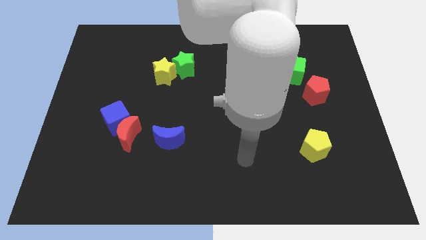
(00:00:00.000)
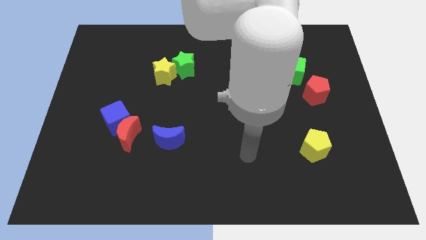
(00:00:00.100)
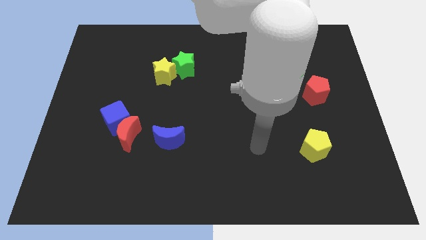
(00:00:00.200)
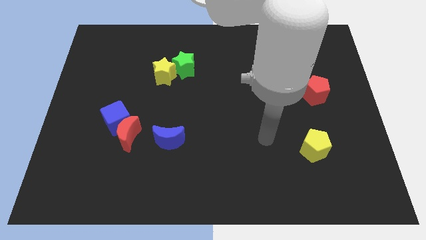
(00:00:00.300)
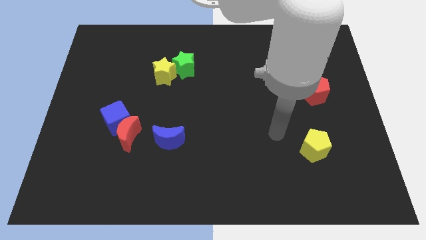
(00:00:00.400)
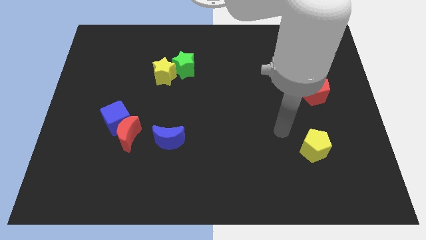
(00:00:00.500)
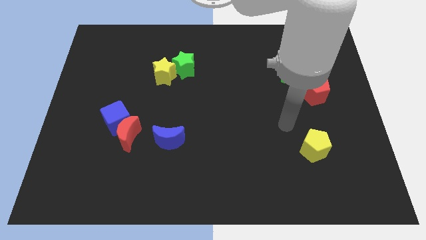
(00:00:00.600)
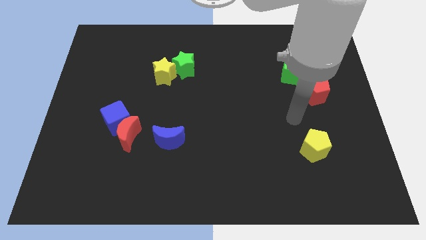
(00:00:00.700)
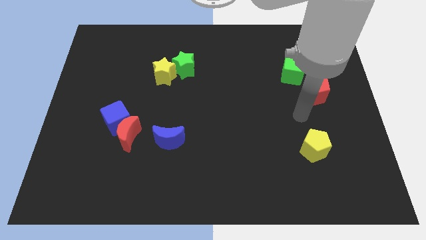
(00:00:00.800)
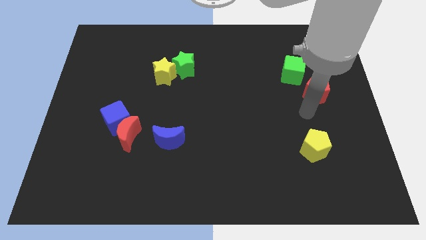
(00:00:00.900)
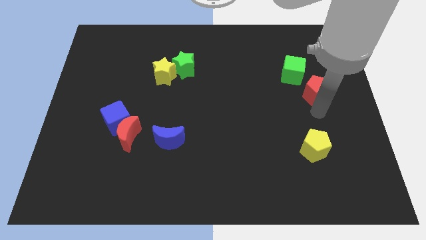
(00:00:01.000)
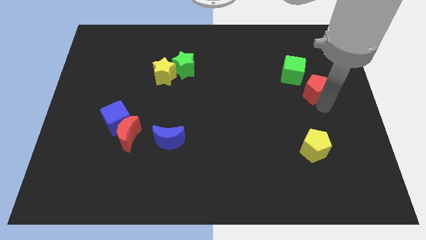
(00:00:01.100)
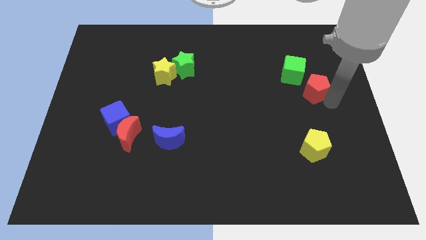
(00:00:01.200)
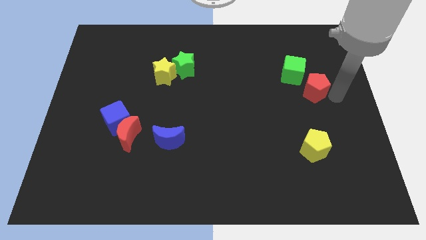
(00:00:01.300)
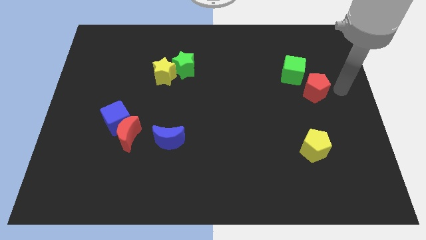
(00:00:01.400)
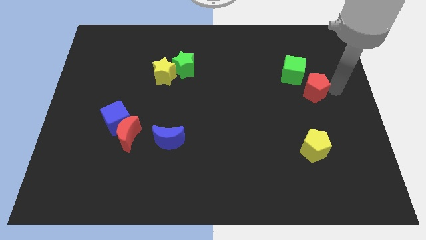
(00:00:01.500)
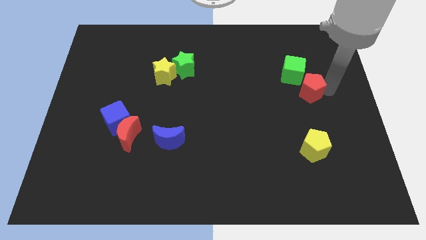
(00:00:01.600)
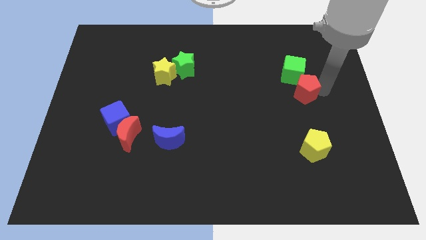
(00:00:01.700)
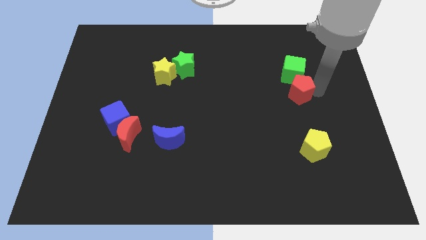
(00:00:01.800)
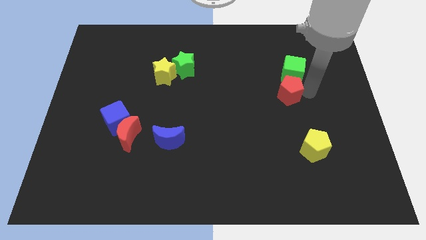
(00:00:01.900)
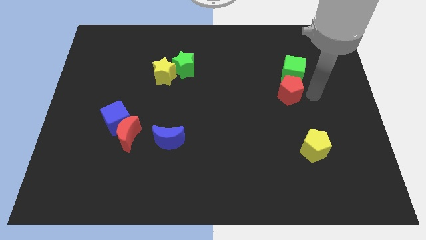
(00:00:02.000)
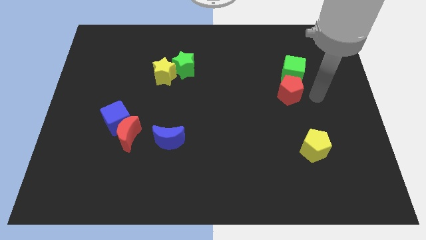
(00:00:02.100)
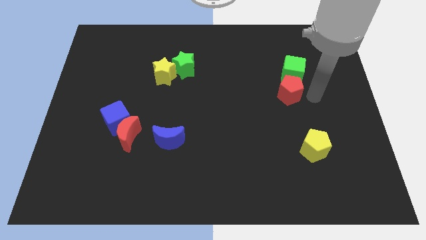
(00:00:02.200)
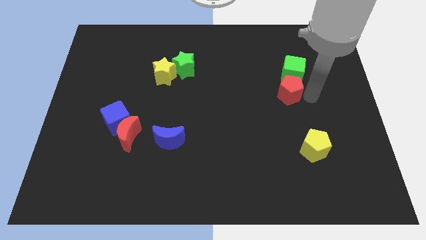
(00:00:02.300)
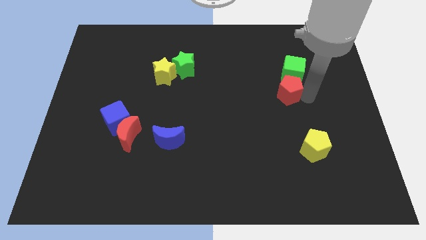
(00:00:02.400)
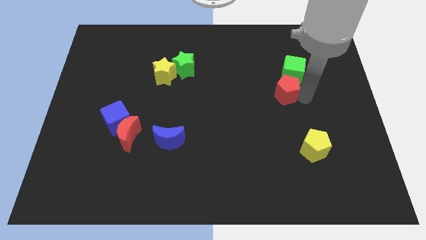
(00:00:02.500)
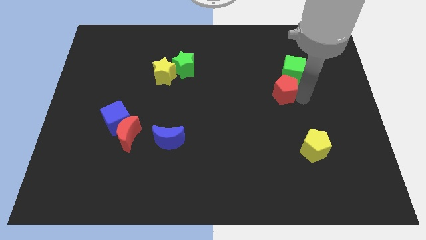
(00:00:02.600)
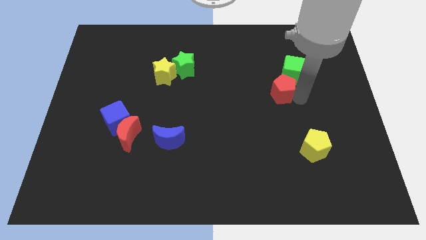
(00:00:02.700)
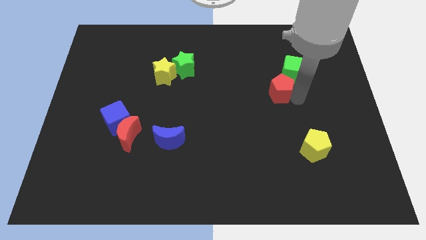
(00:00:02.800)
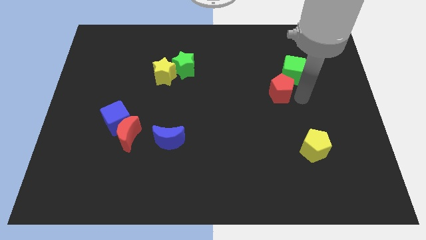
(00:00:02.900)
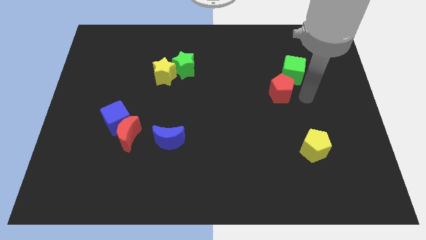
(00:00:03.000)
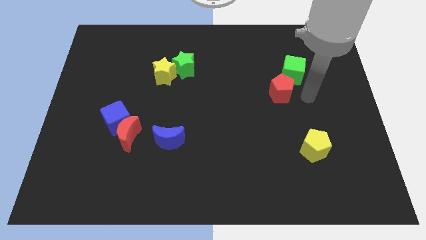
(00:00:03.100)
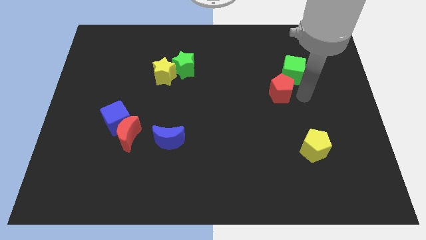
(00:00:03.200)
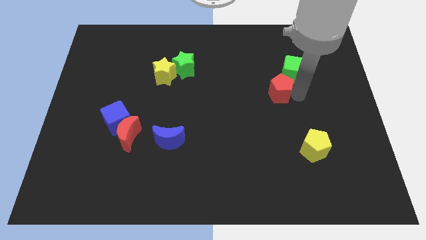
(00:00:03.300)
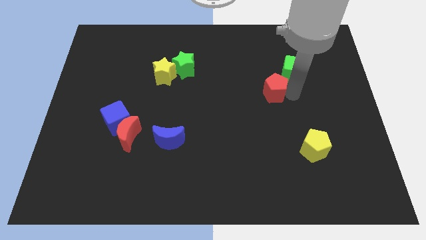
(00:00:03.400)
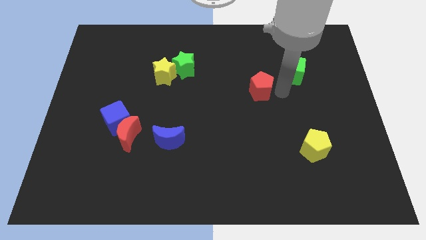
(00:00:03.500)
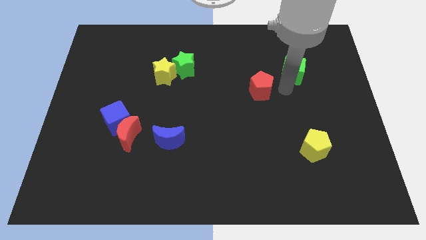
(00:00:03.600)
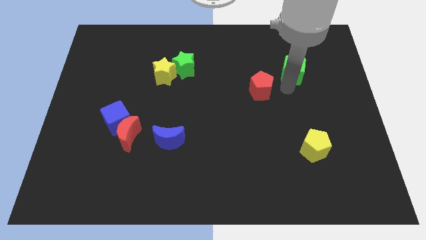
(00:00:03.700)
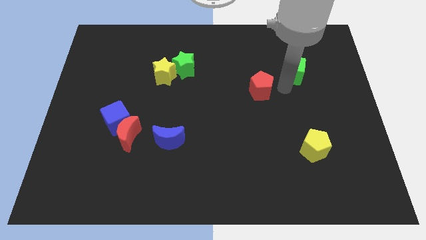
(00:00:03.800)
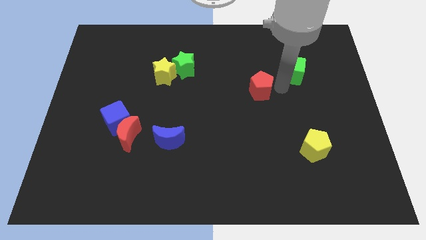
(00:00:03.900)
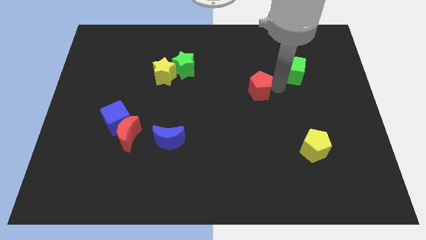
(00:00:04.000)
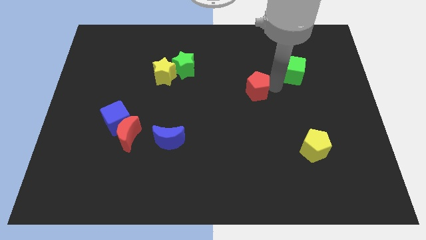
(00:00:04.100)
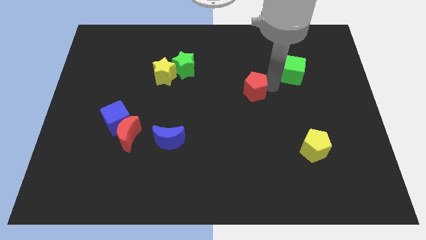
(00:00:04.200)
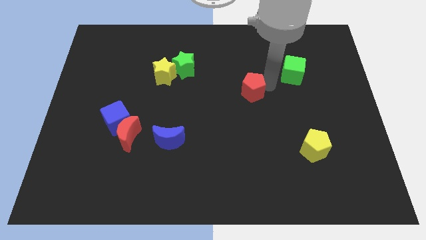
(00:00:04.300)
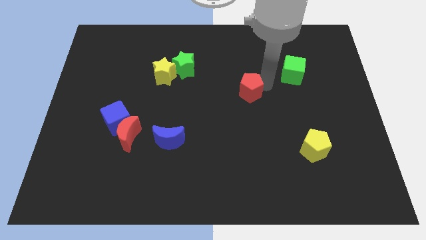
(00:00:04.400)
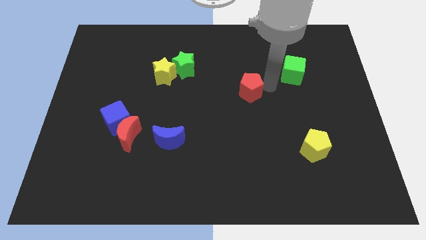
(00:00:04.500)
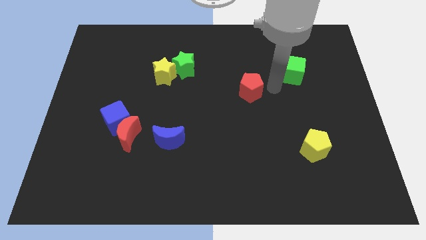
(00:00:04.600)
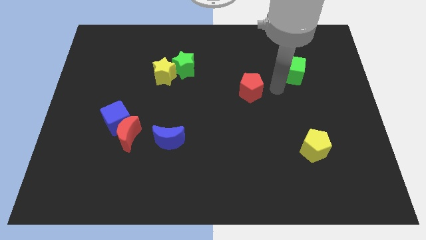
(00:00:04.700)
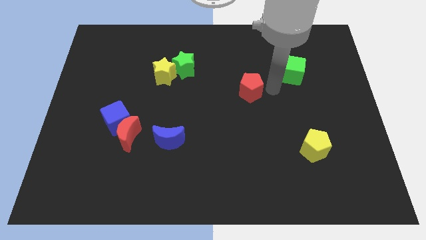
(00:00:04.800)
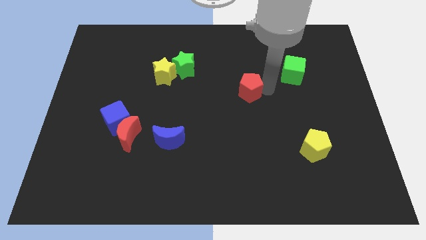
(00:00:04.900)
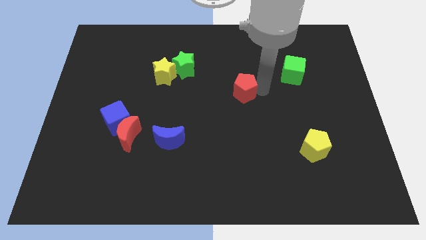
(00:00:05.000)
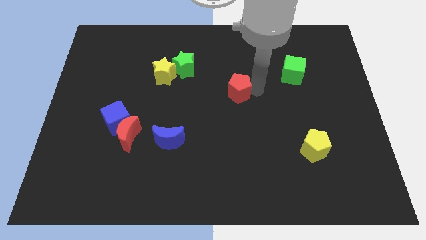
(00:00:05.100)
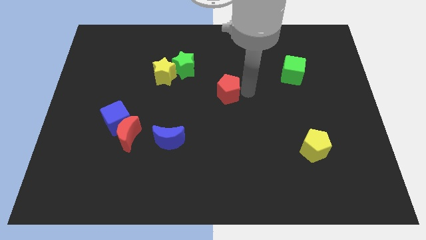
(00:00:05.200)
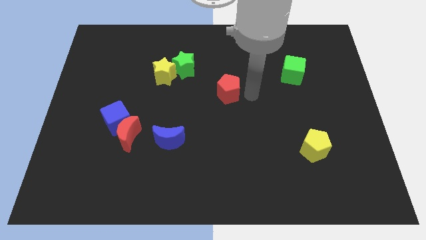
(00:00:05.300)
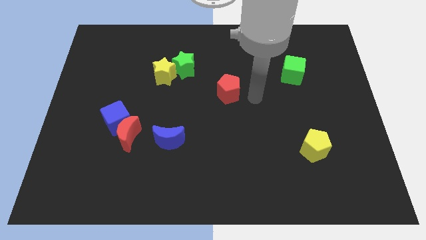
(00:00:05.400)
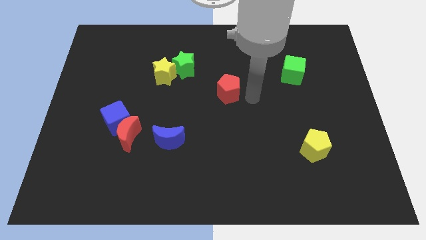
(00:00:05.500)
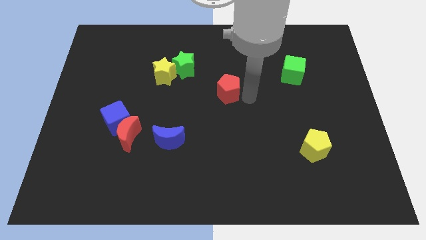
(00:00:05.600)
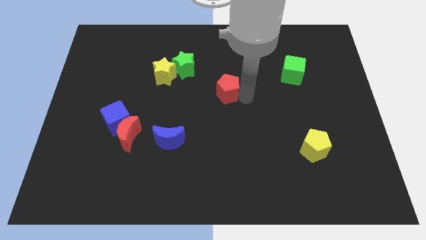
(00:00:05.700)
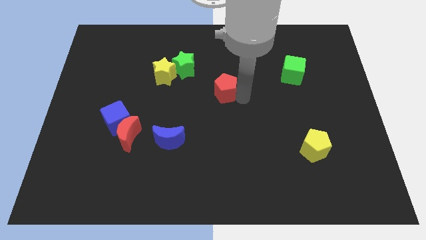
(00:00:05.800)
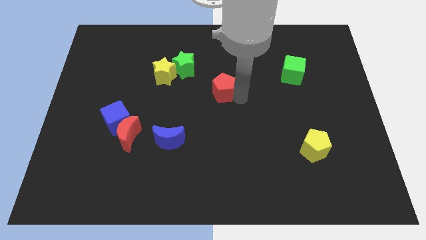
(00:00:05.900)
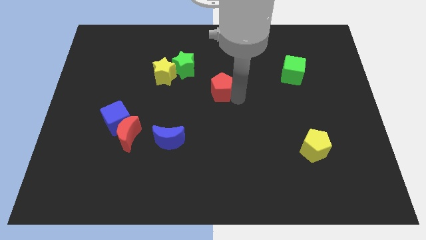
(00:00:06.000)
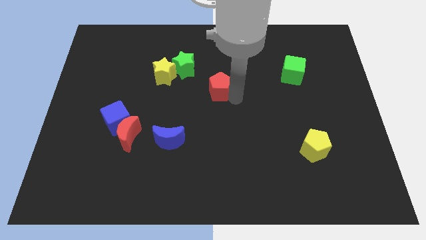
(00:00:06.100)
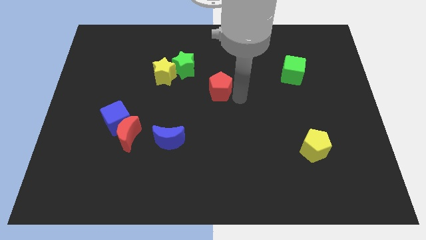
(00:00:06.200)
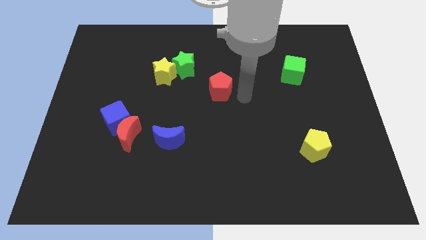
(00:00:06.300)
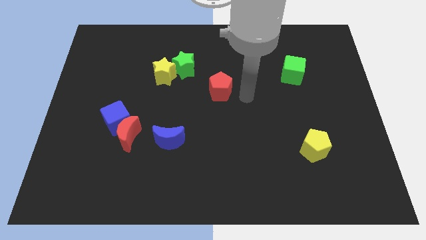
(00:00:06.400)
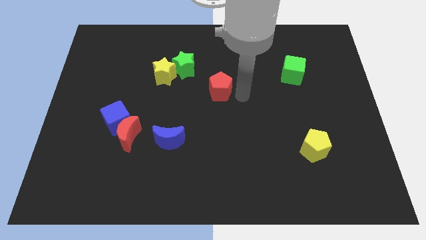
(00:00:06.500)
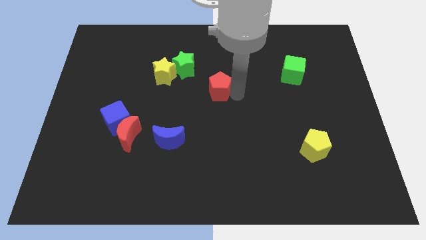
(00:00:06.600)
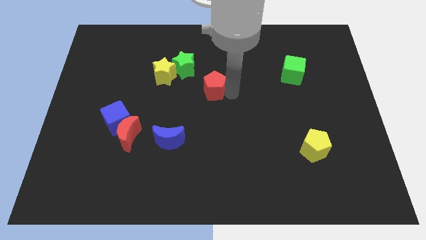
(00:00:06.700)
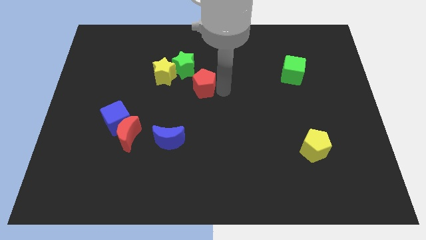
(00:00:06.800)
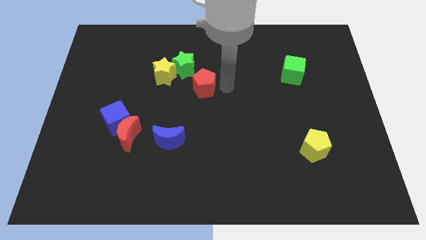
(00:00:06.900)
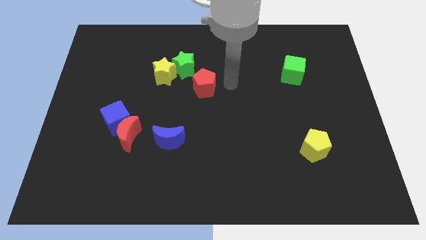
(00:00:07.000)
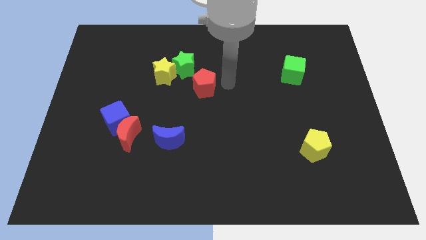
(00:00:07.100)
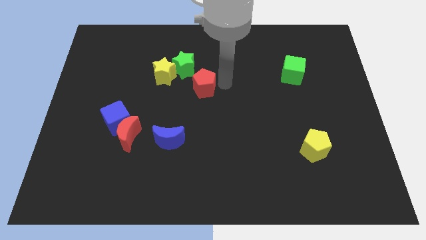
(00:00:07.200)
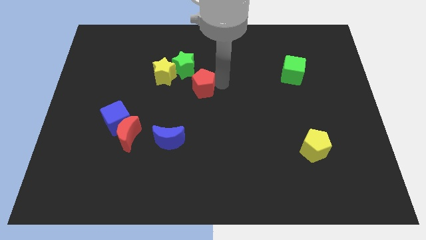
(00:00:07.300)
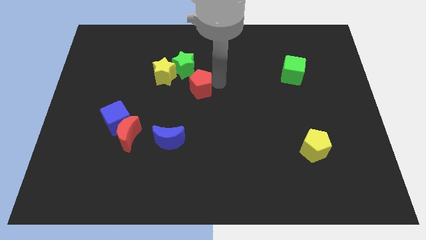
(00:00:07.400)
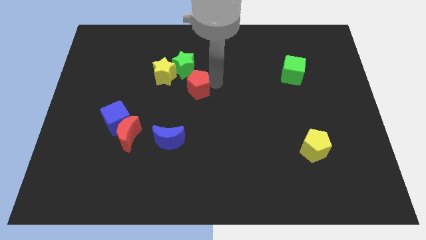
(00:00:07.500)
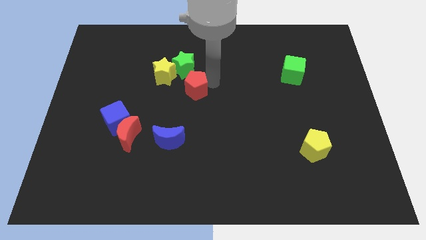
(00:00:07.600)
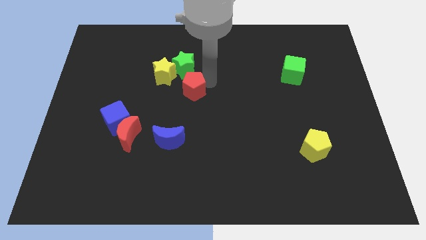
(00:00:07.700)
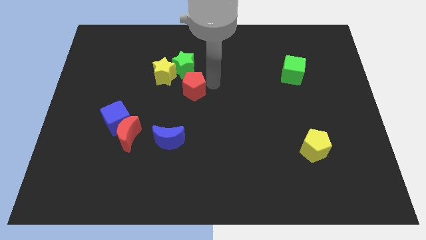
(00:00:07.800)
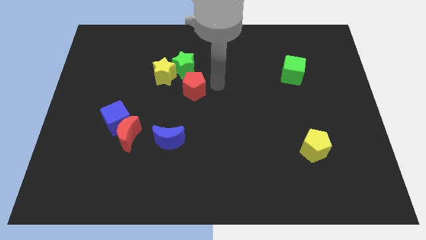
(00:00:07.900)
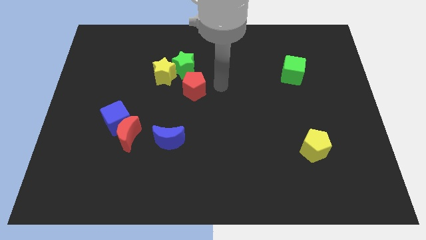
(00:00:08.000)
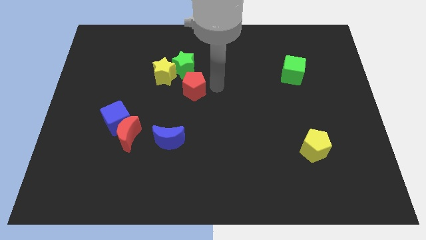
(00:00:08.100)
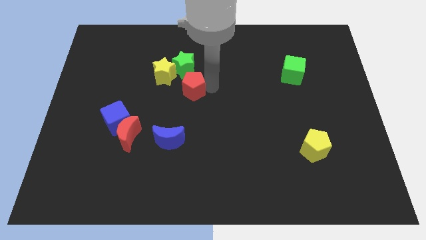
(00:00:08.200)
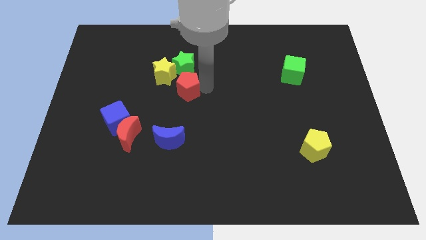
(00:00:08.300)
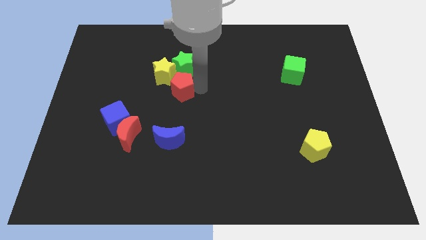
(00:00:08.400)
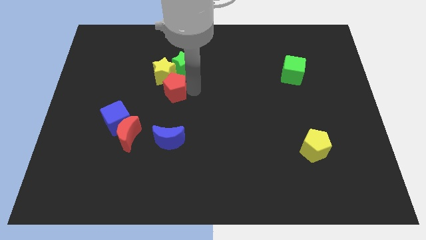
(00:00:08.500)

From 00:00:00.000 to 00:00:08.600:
put the red pentagon to the bottom left of the green star
